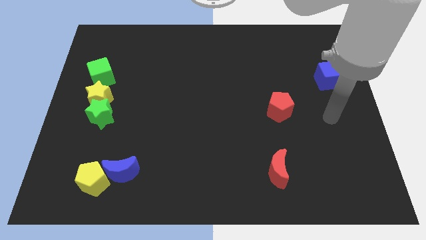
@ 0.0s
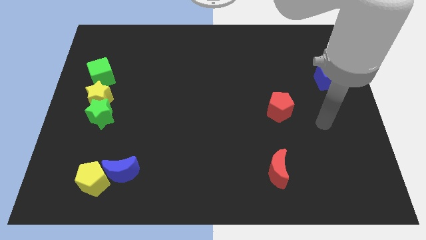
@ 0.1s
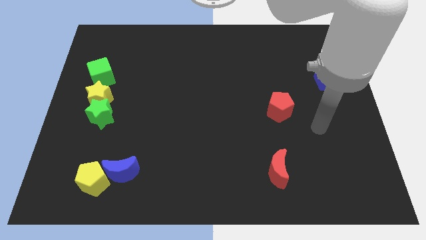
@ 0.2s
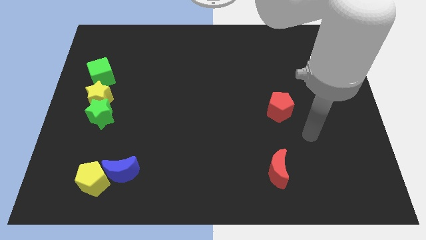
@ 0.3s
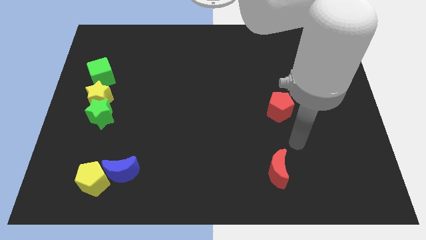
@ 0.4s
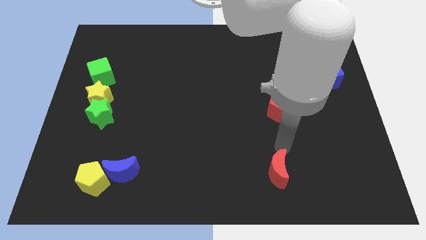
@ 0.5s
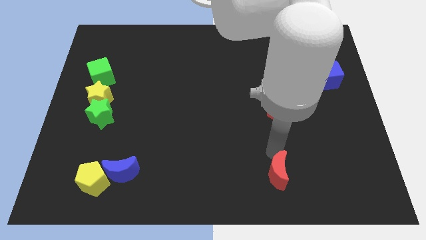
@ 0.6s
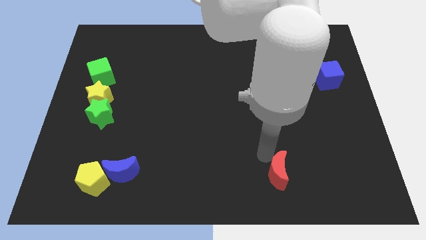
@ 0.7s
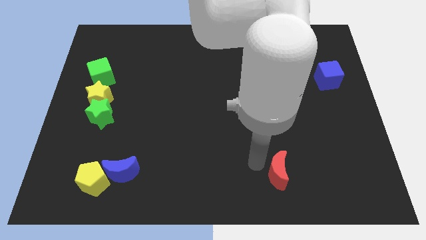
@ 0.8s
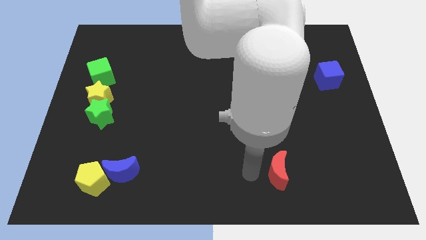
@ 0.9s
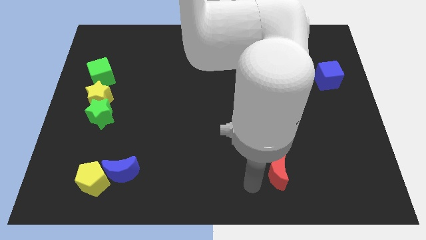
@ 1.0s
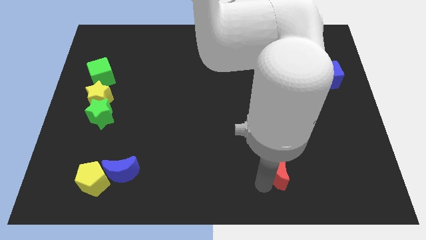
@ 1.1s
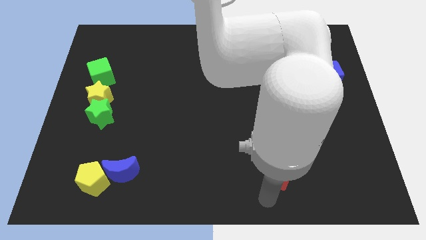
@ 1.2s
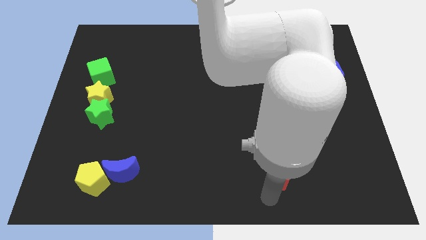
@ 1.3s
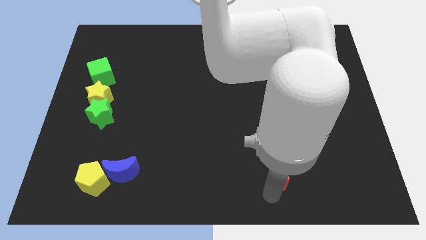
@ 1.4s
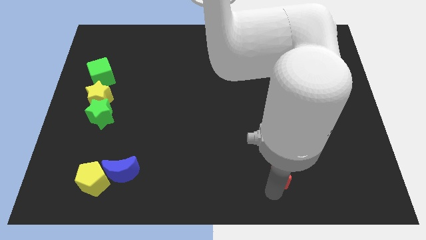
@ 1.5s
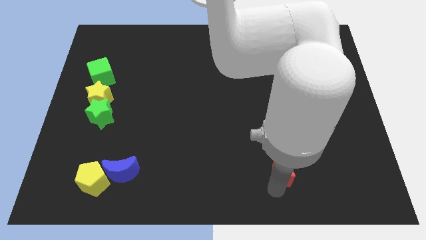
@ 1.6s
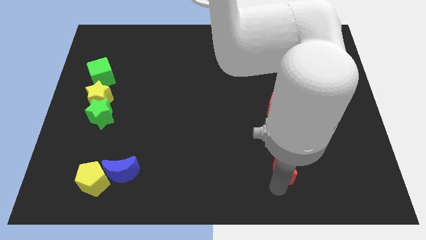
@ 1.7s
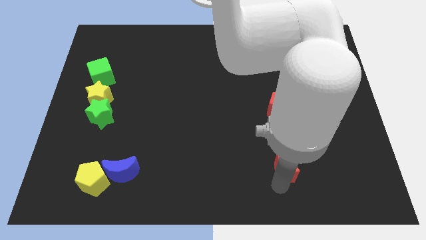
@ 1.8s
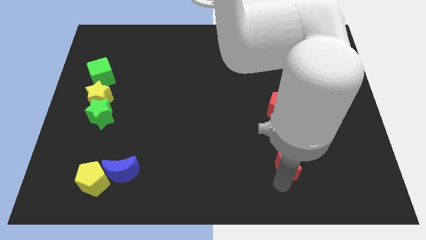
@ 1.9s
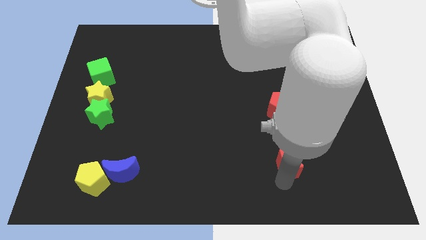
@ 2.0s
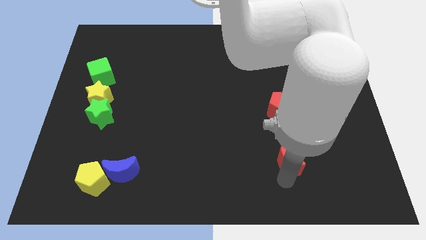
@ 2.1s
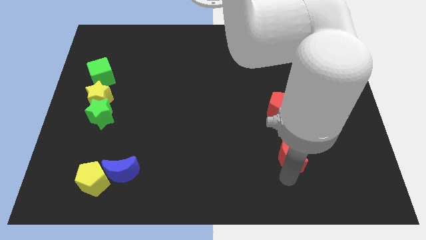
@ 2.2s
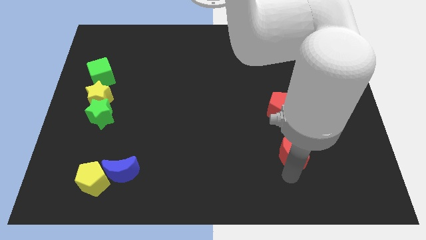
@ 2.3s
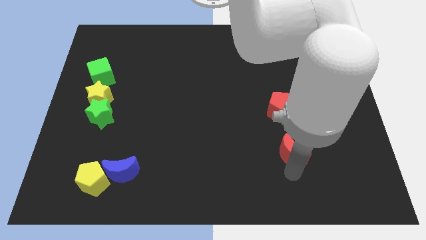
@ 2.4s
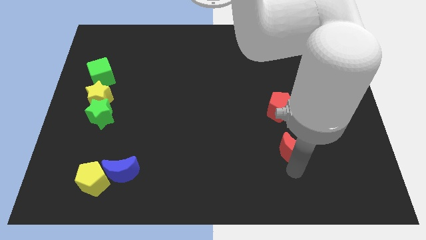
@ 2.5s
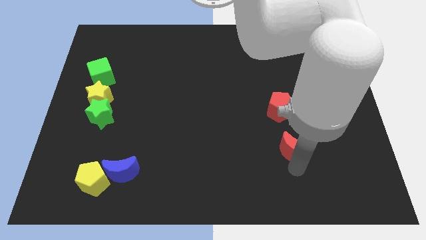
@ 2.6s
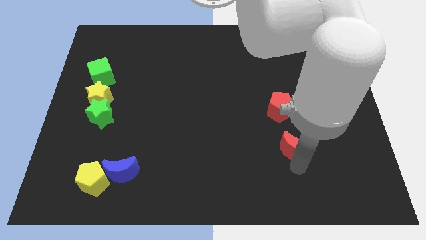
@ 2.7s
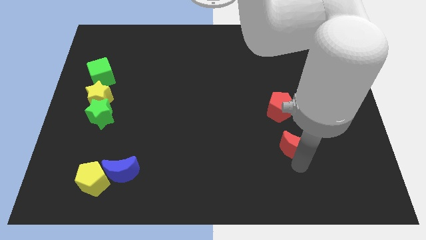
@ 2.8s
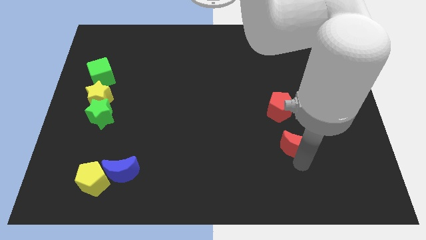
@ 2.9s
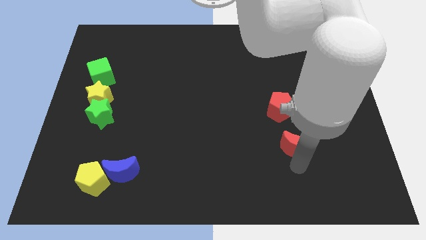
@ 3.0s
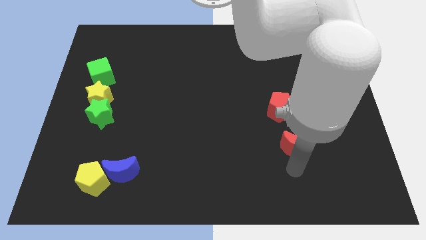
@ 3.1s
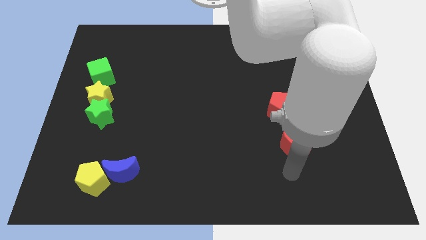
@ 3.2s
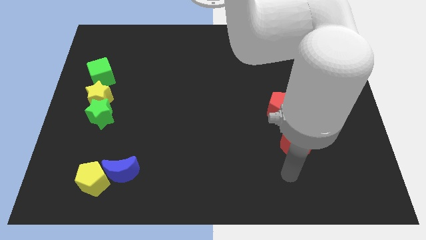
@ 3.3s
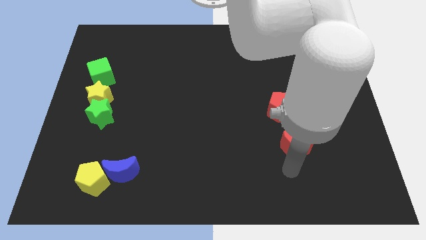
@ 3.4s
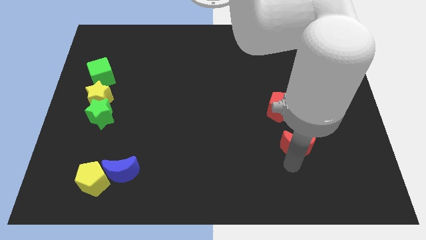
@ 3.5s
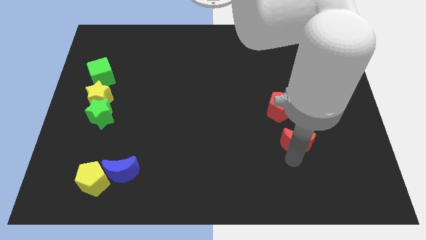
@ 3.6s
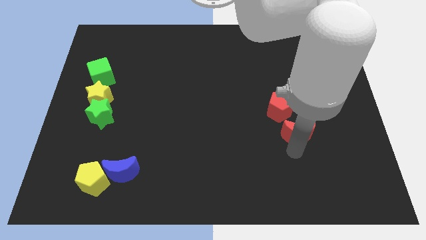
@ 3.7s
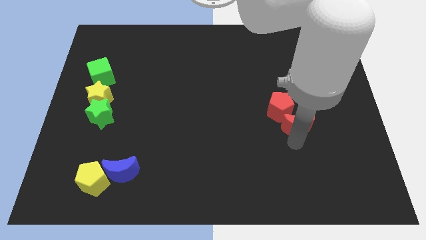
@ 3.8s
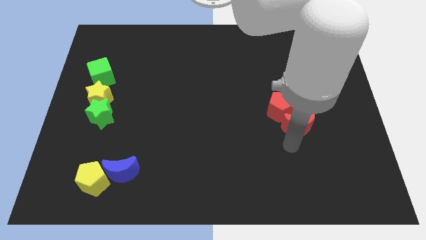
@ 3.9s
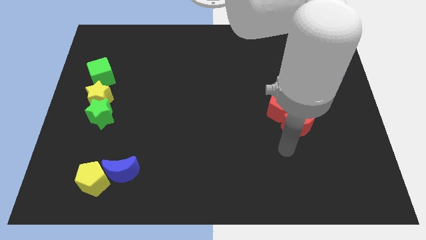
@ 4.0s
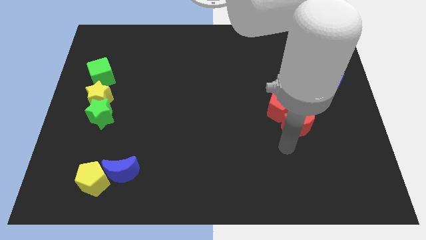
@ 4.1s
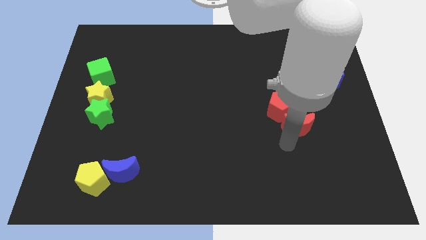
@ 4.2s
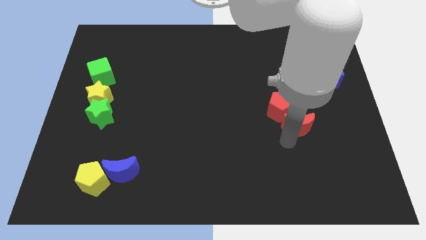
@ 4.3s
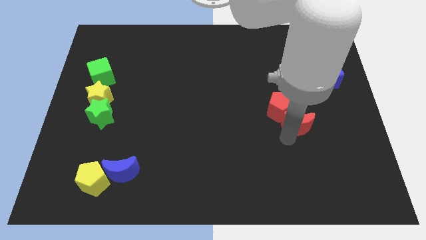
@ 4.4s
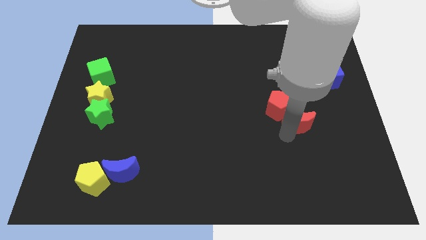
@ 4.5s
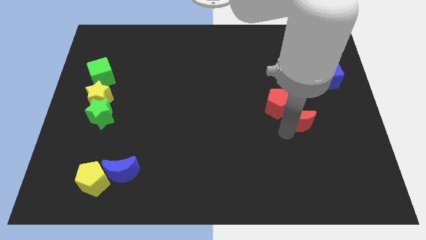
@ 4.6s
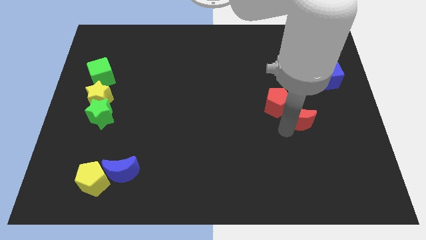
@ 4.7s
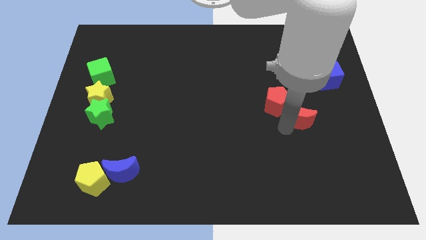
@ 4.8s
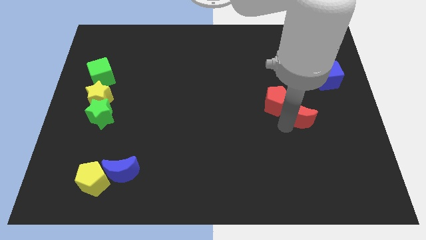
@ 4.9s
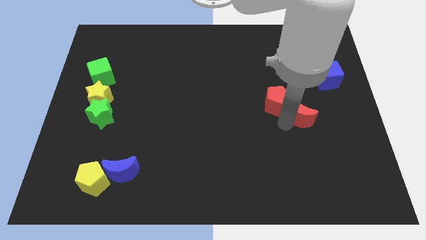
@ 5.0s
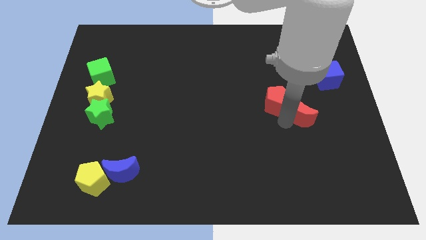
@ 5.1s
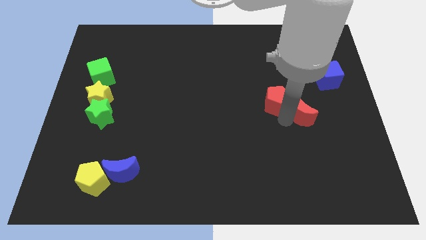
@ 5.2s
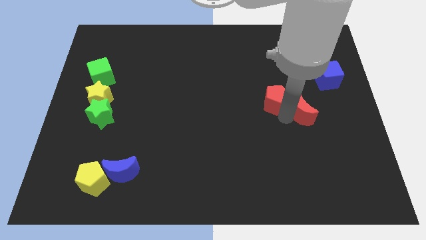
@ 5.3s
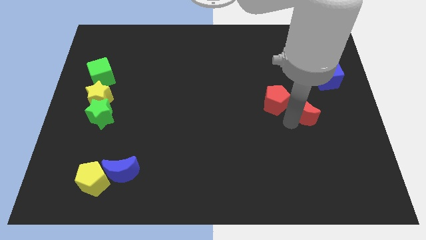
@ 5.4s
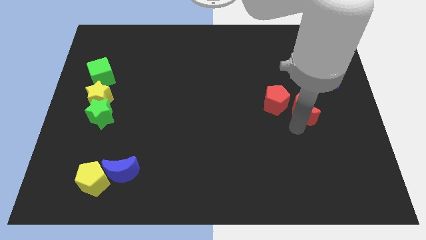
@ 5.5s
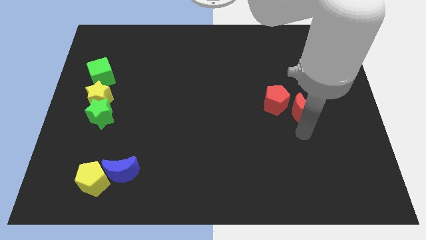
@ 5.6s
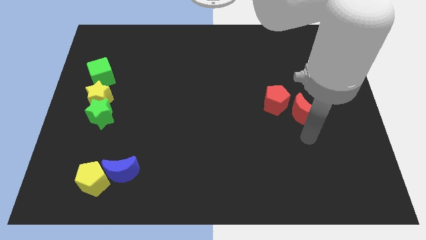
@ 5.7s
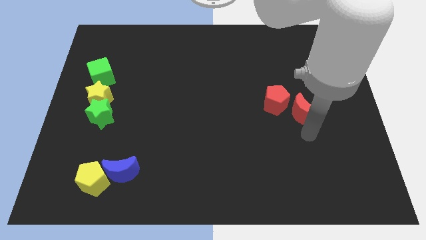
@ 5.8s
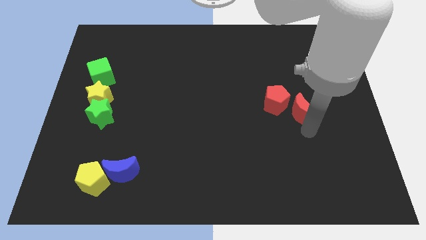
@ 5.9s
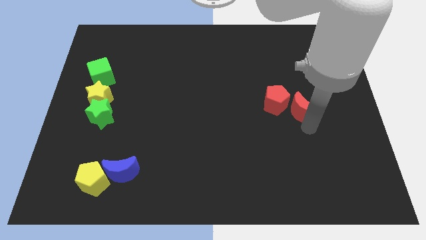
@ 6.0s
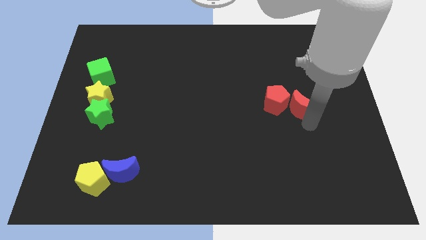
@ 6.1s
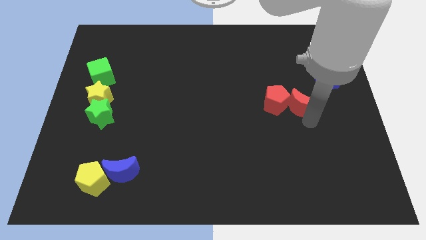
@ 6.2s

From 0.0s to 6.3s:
put the red moon diagonally up and to the right of the red pentagon
